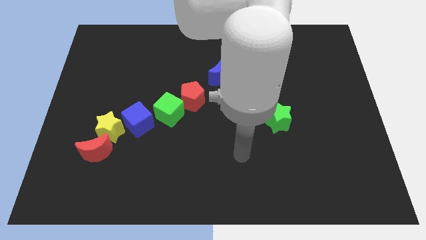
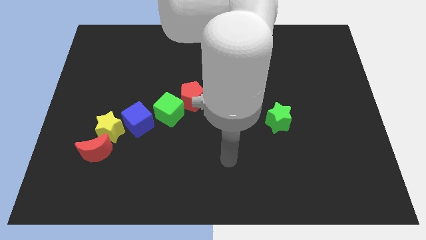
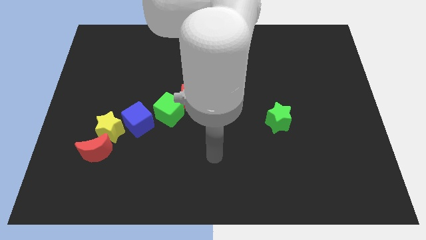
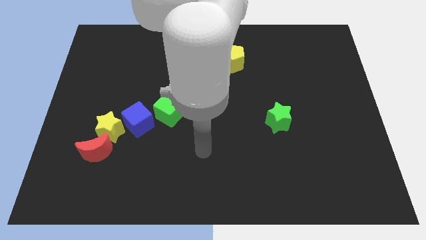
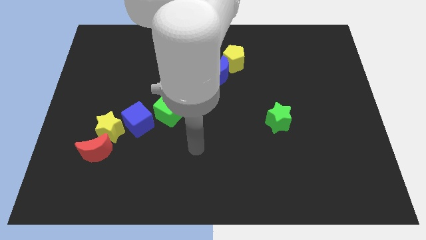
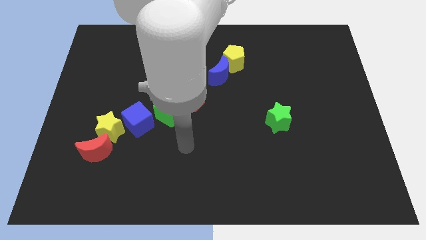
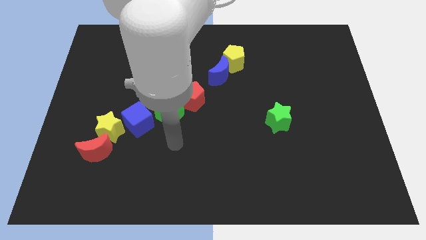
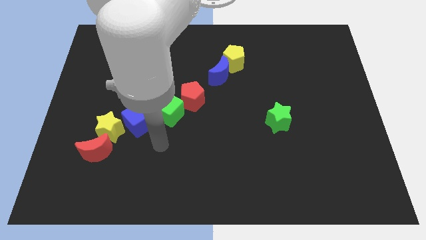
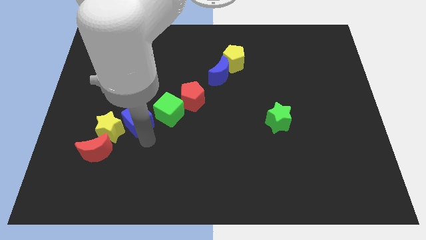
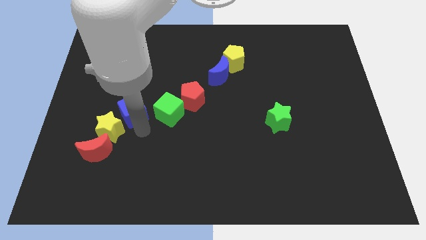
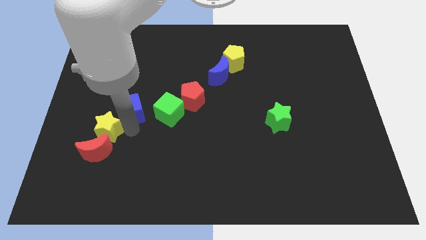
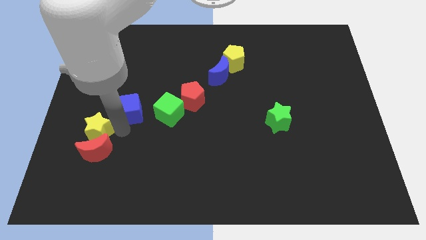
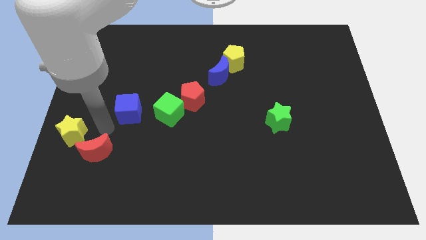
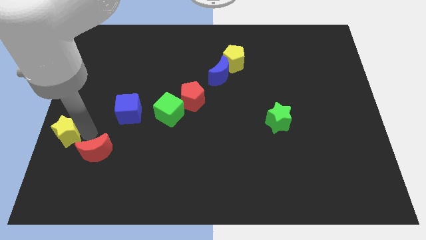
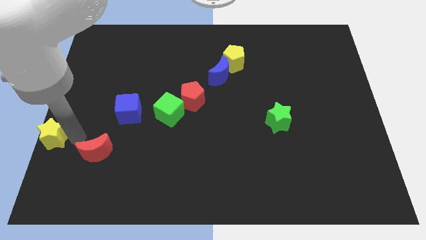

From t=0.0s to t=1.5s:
move the red moon away from the yellow star

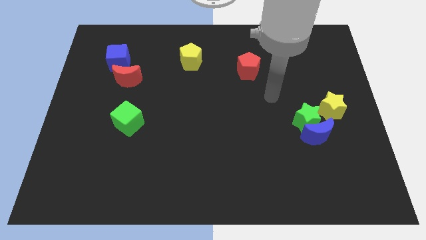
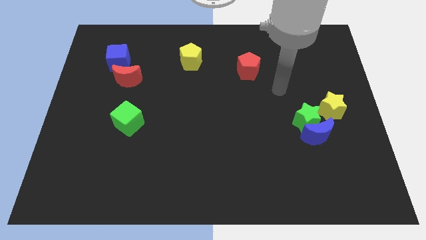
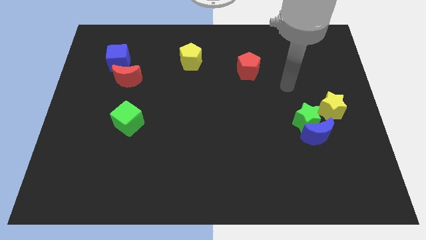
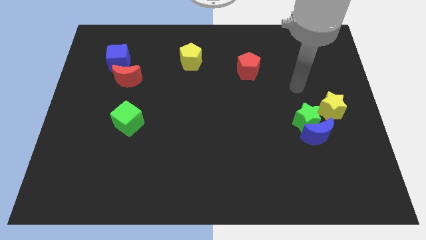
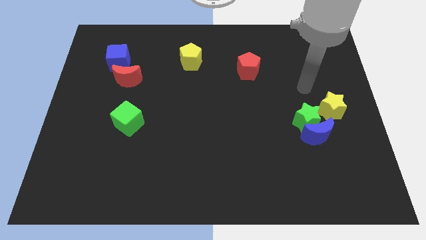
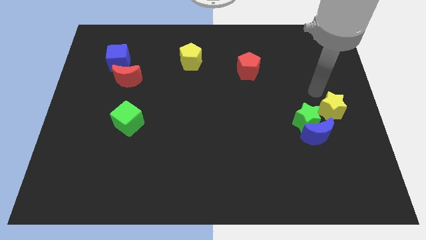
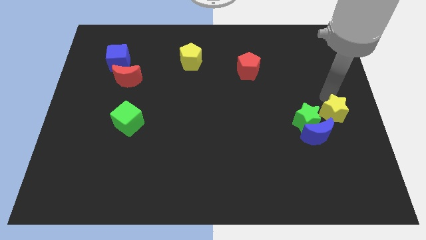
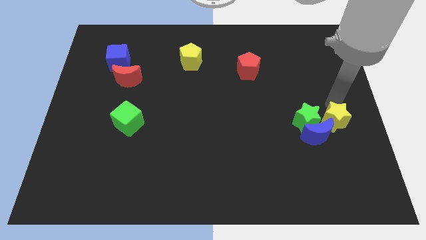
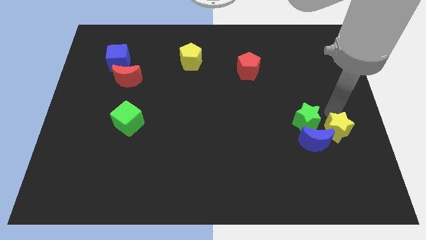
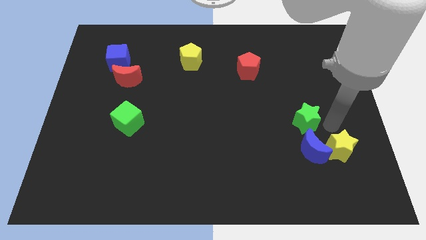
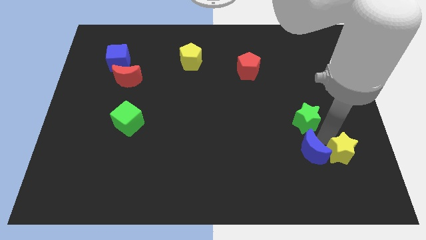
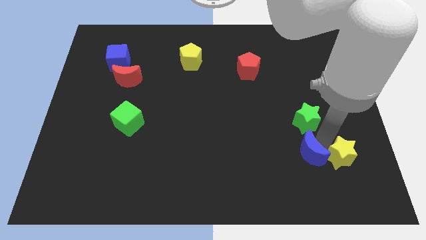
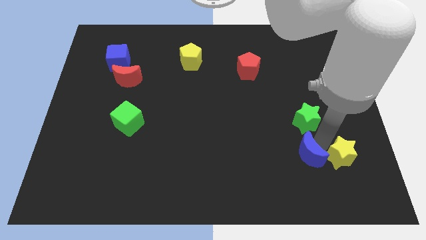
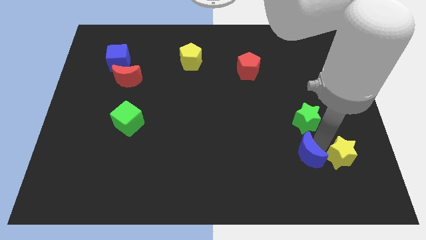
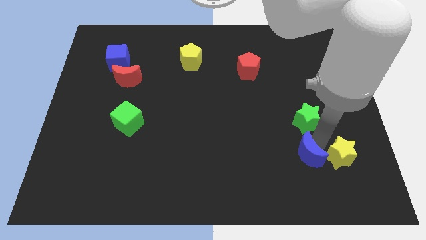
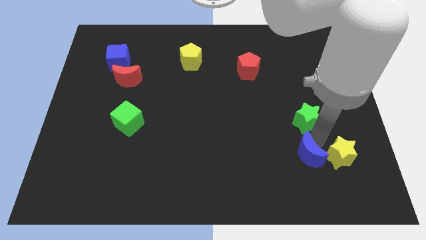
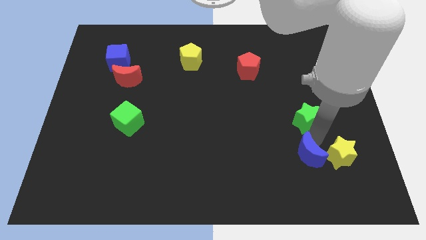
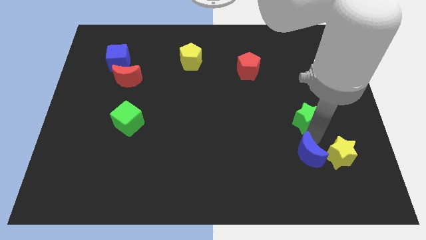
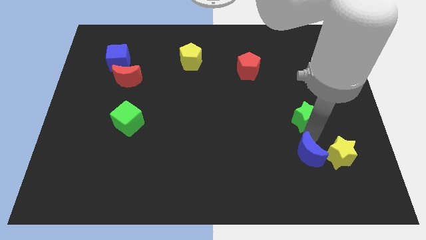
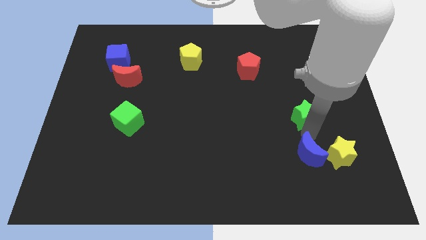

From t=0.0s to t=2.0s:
separate the green star from the blue moon and yellow star

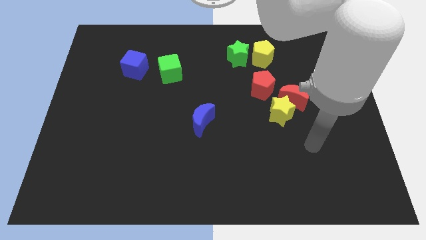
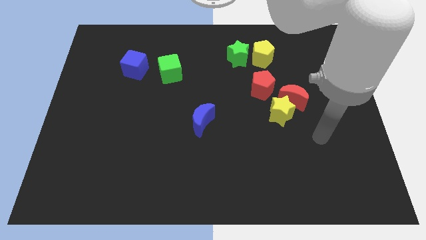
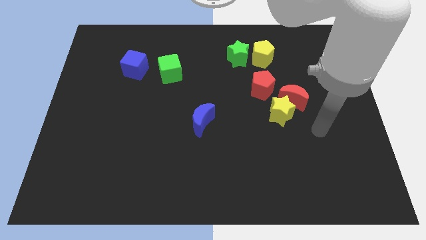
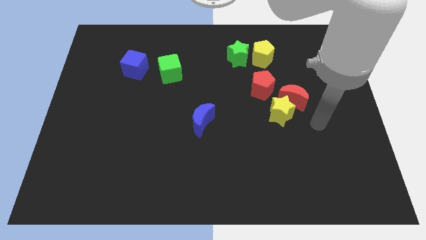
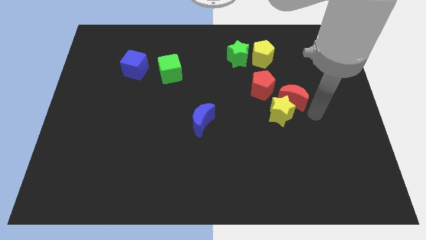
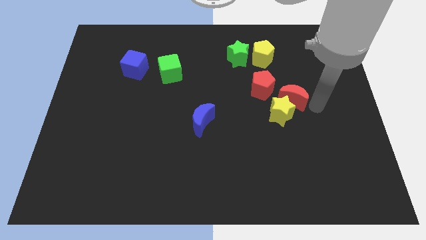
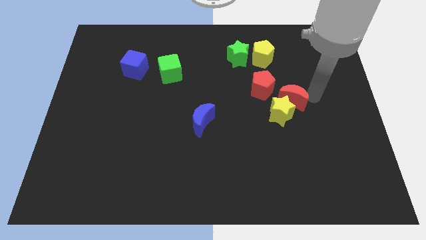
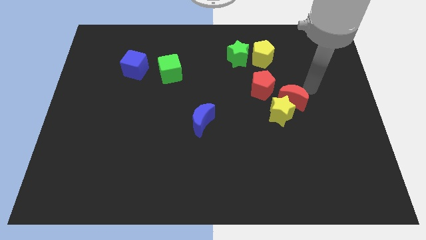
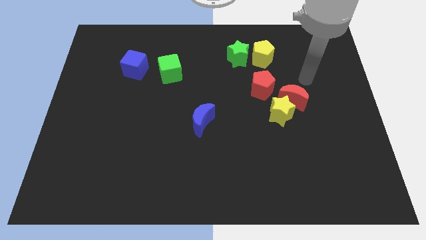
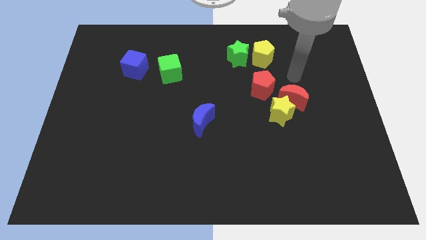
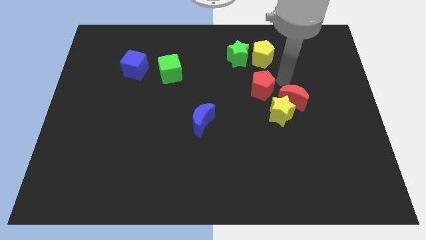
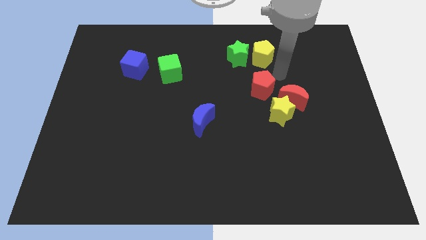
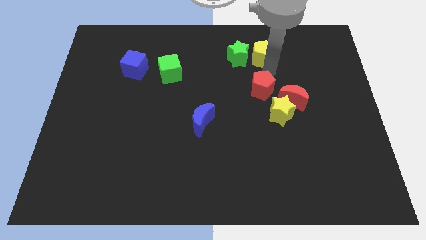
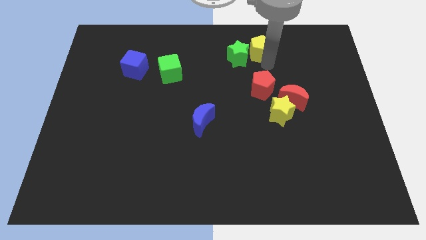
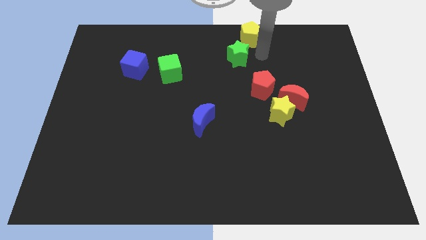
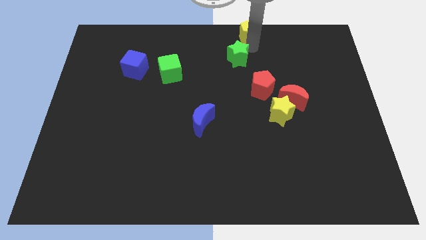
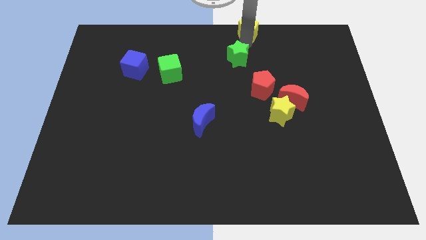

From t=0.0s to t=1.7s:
separate the green star from the yellow pentagon

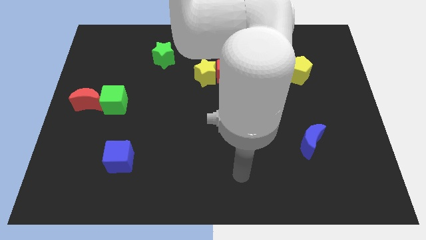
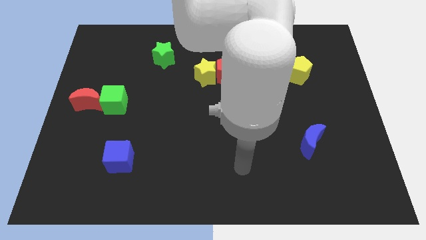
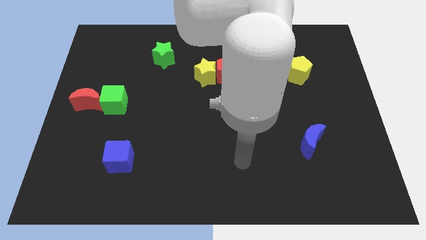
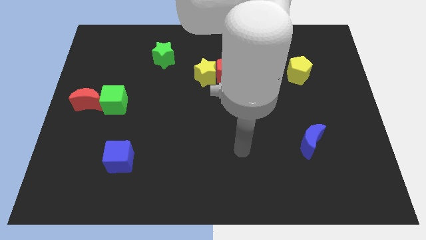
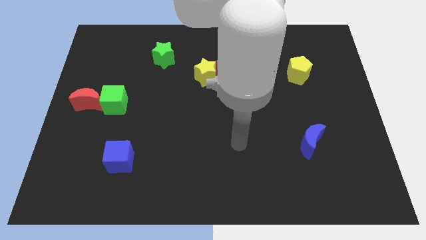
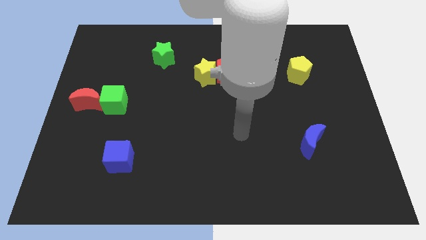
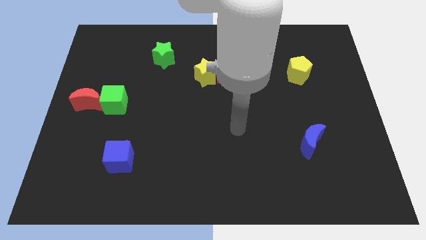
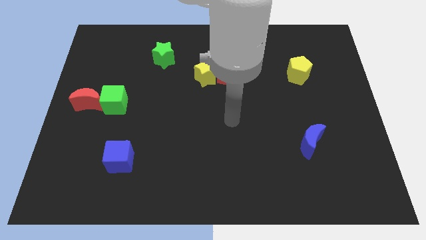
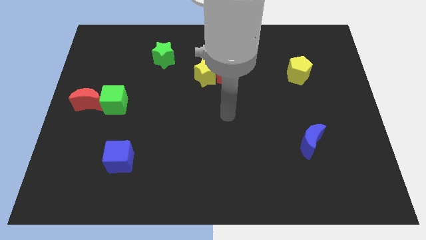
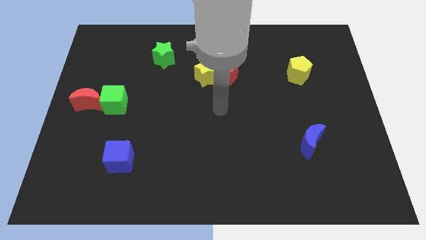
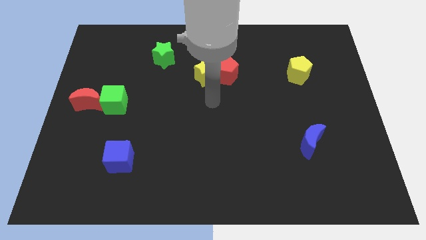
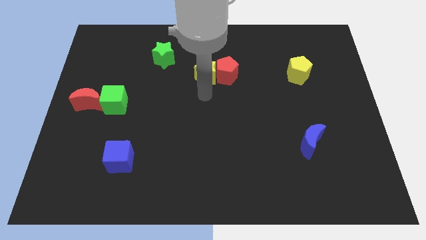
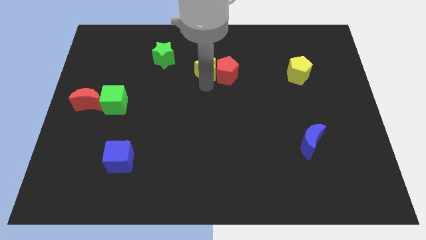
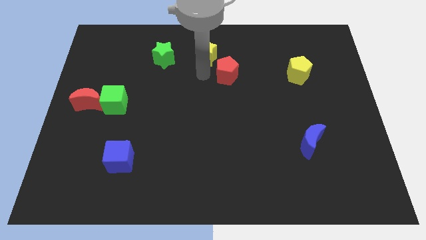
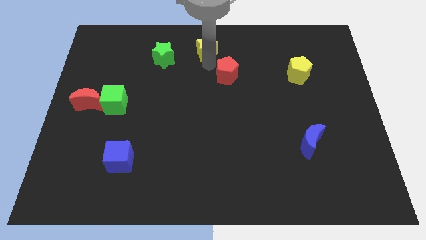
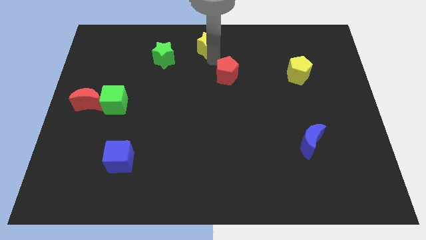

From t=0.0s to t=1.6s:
pull the red pentagon apart from the yellow star

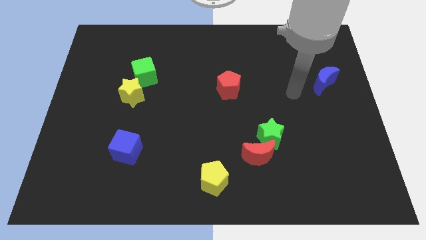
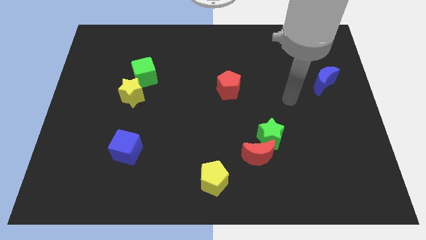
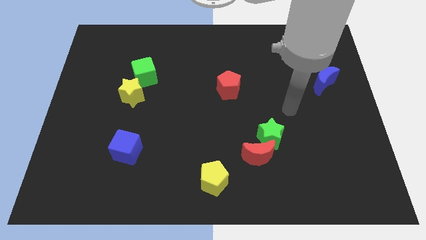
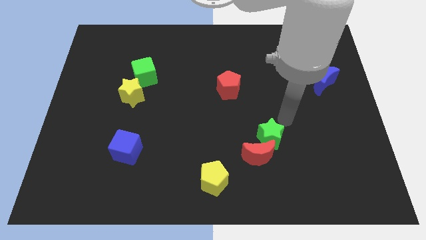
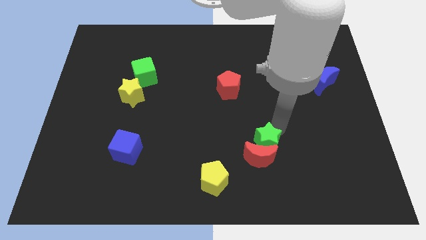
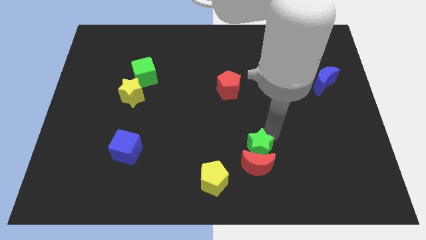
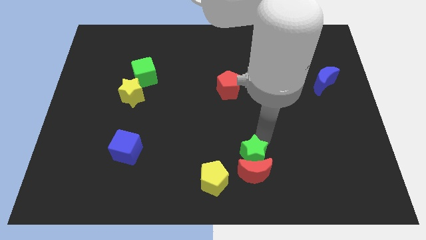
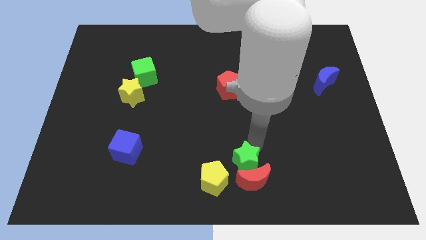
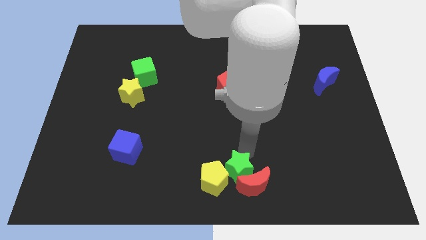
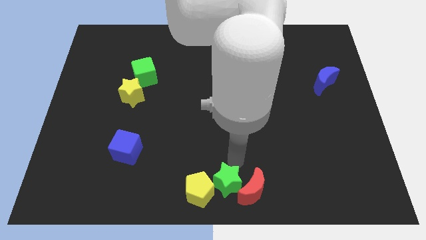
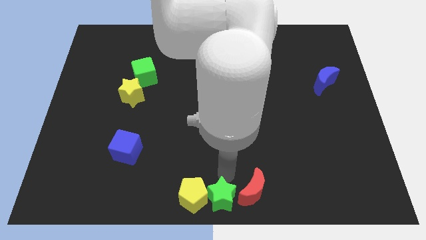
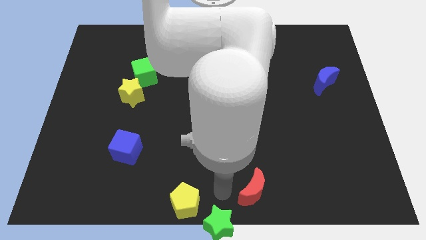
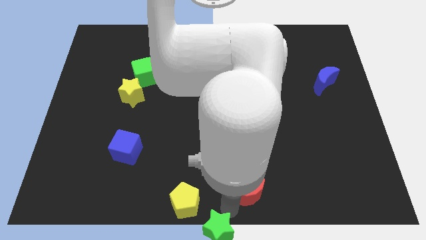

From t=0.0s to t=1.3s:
separate the red moon from the green star

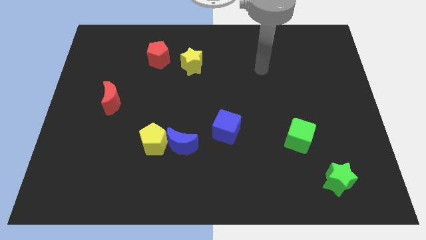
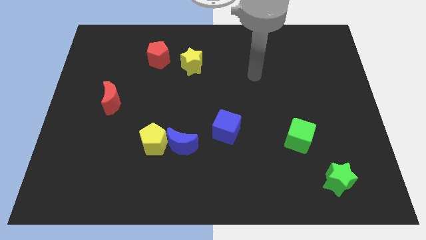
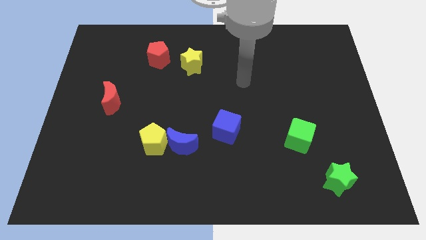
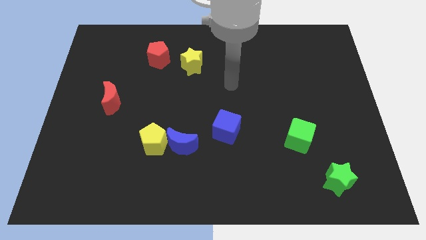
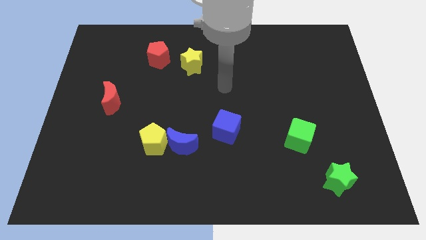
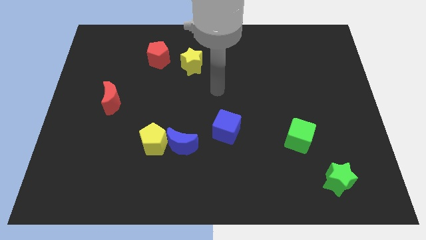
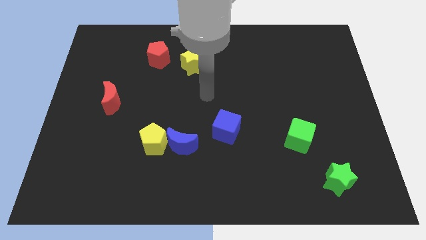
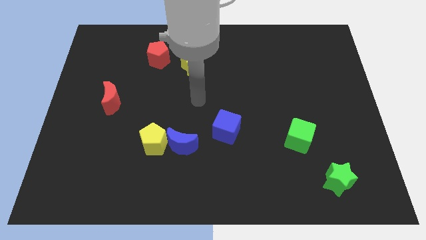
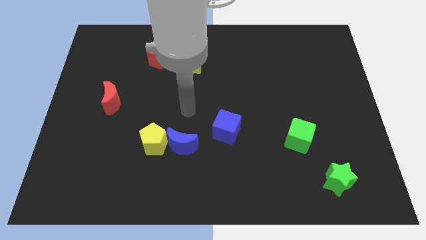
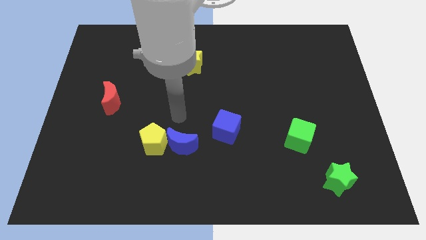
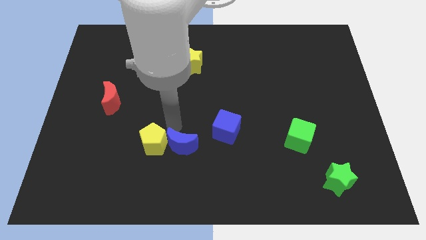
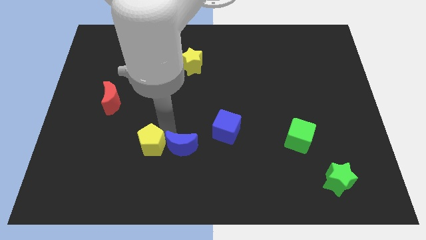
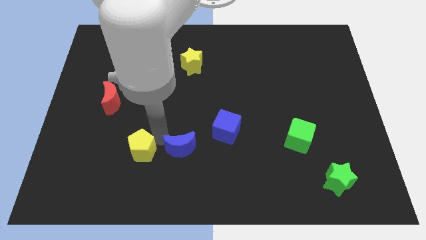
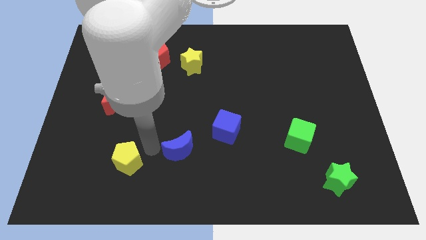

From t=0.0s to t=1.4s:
pull the blue moon apart from the yellow pentagon
